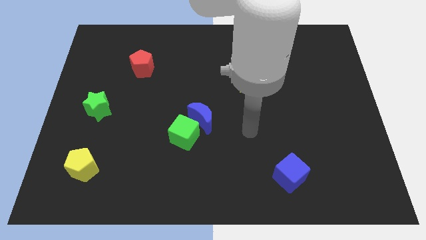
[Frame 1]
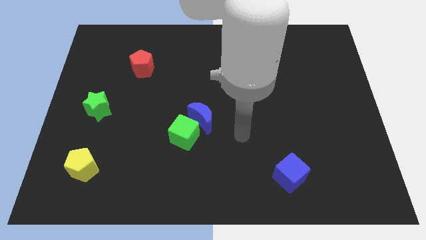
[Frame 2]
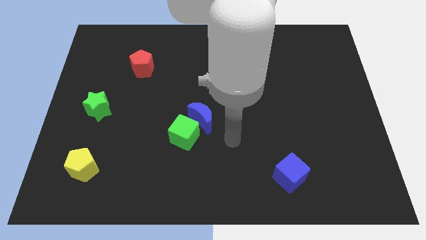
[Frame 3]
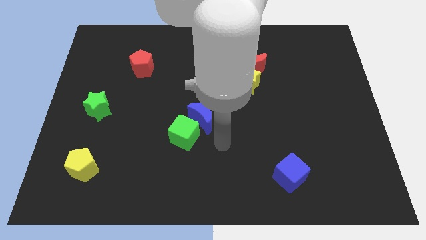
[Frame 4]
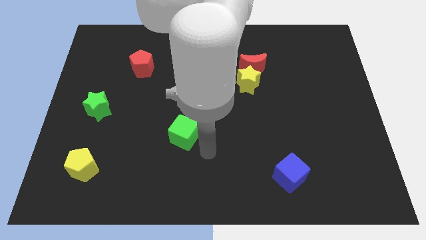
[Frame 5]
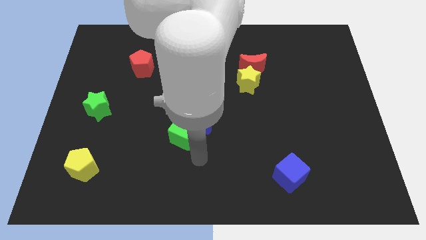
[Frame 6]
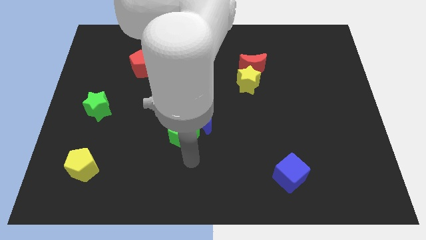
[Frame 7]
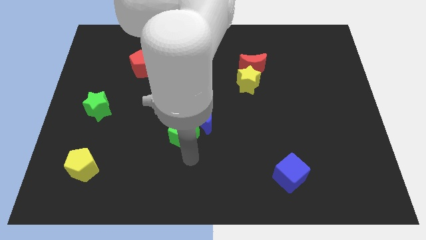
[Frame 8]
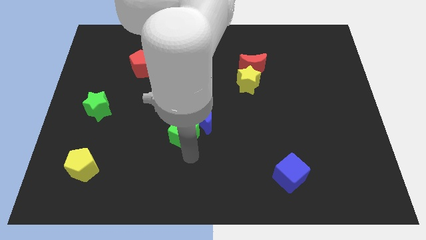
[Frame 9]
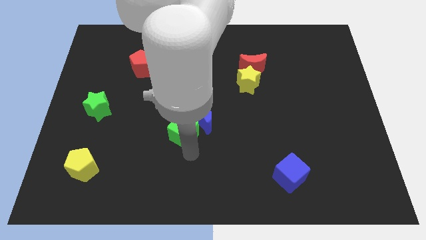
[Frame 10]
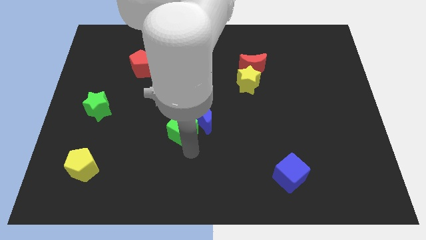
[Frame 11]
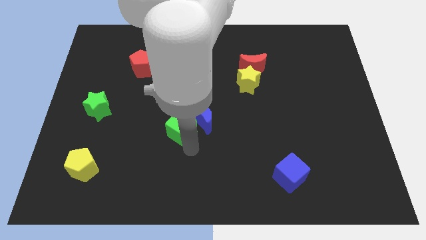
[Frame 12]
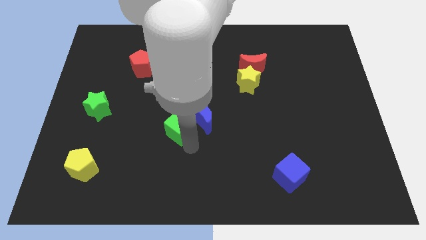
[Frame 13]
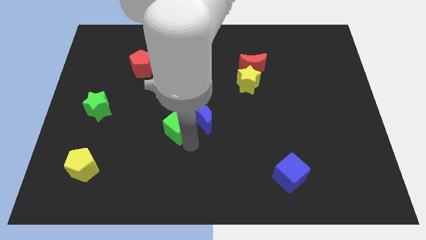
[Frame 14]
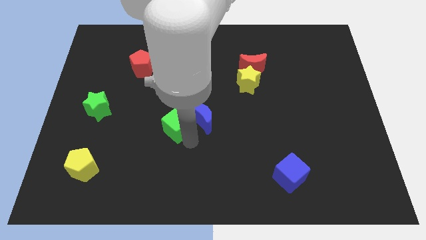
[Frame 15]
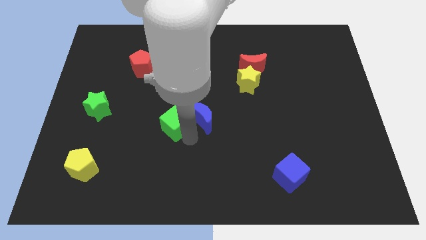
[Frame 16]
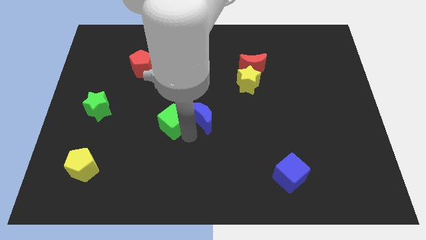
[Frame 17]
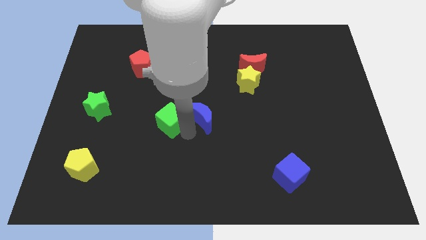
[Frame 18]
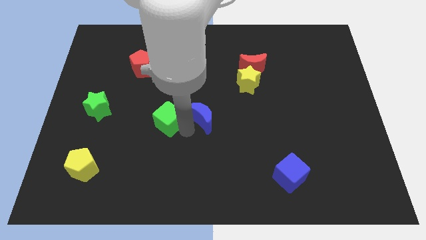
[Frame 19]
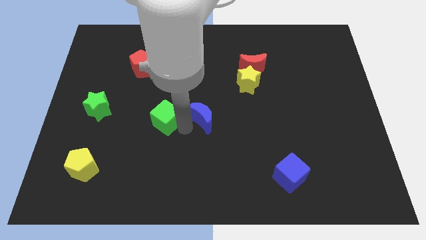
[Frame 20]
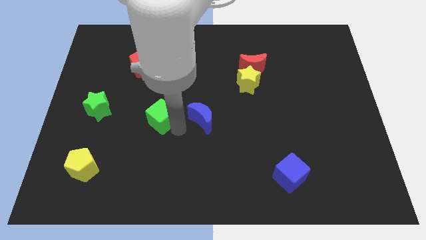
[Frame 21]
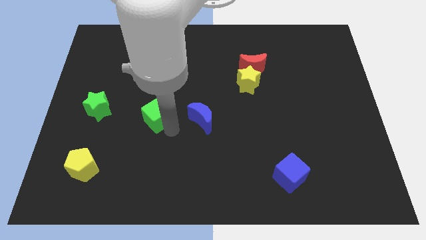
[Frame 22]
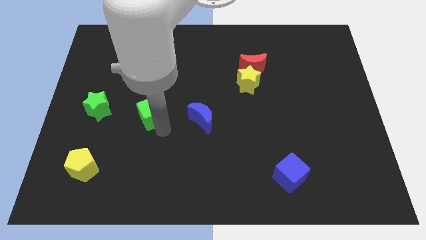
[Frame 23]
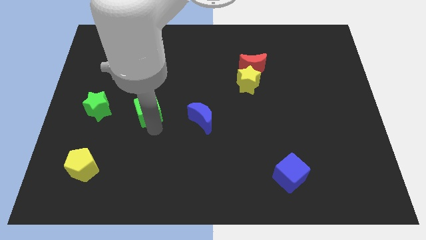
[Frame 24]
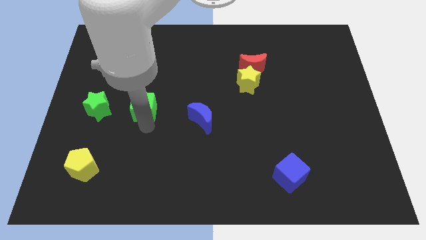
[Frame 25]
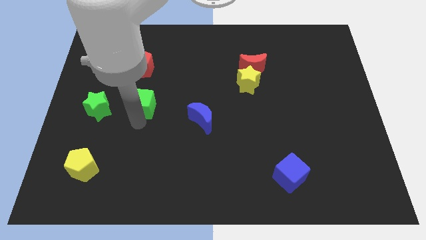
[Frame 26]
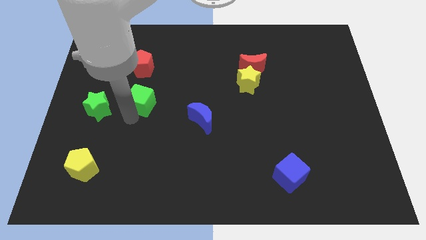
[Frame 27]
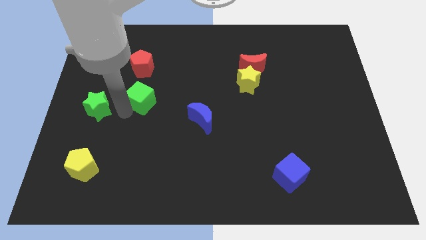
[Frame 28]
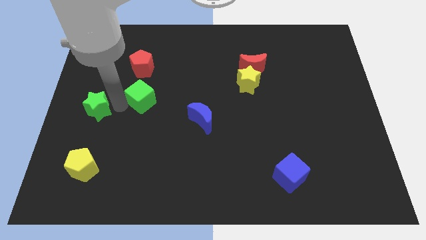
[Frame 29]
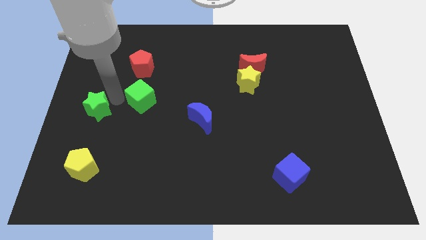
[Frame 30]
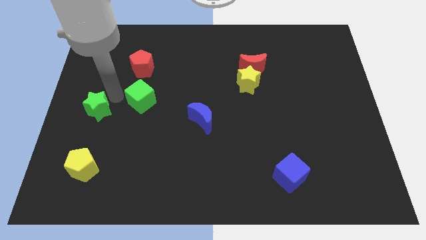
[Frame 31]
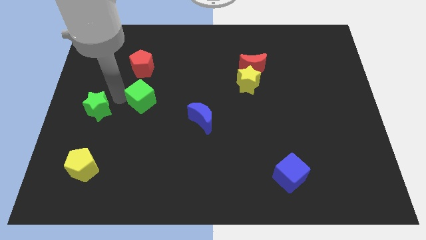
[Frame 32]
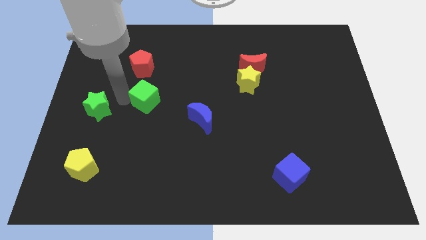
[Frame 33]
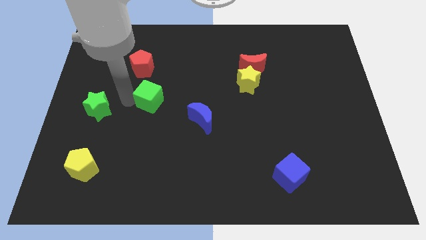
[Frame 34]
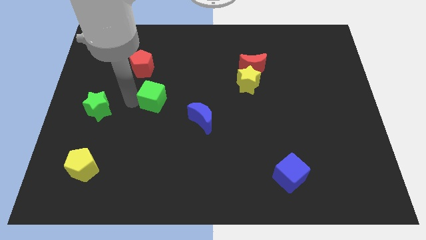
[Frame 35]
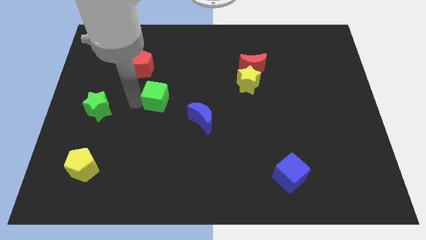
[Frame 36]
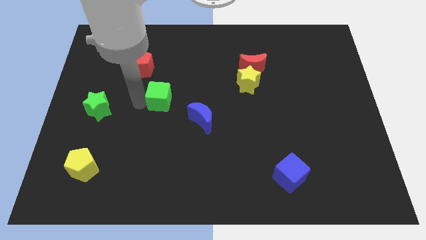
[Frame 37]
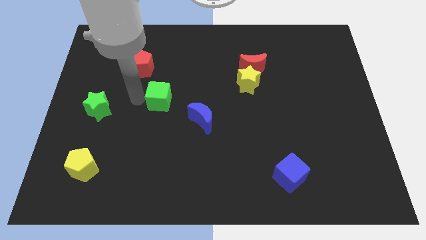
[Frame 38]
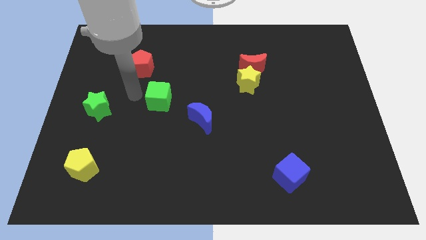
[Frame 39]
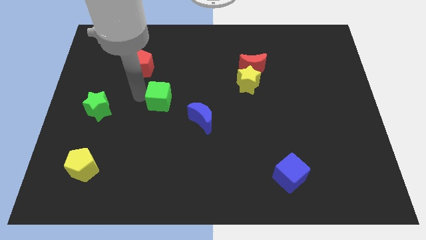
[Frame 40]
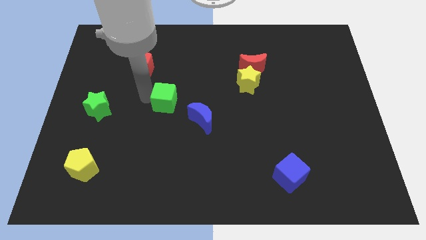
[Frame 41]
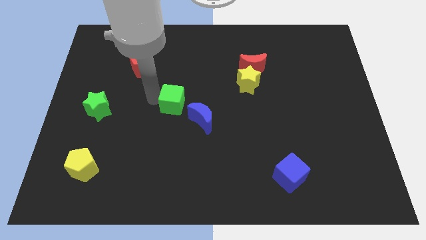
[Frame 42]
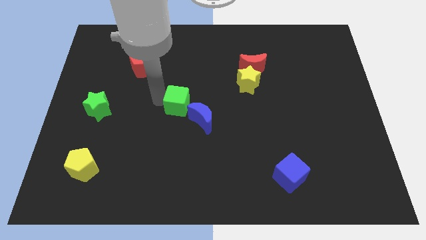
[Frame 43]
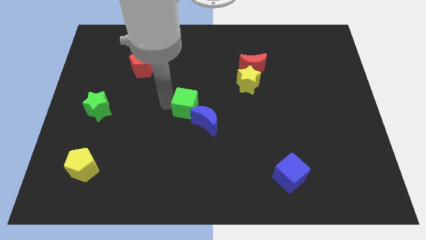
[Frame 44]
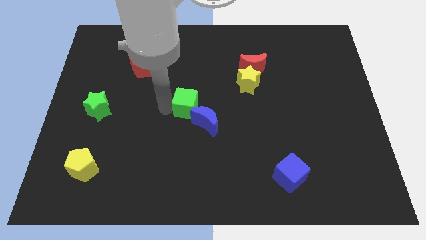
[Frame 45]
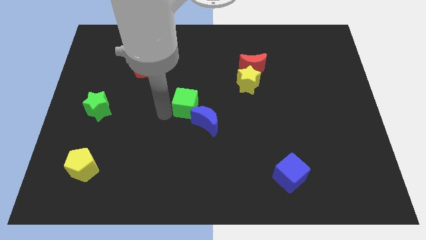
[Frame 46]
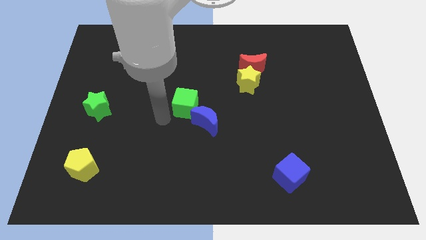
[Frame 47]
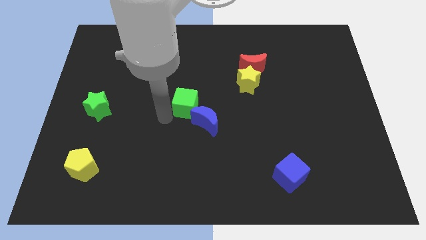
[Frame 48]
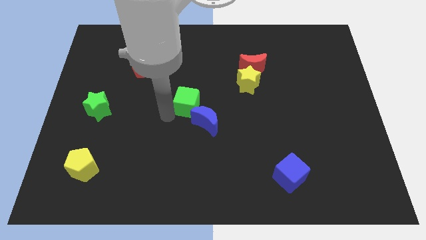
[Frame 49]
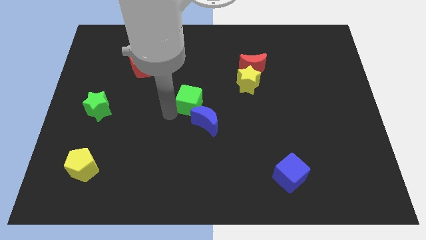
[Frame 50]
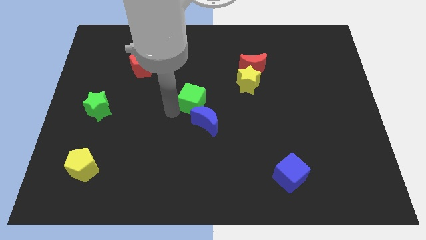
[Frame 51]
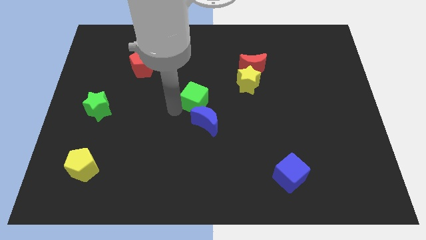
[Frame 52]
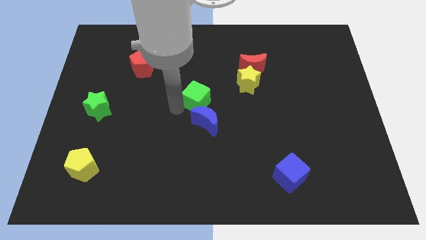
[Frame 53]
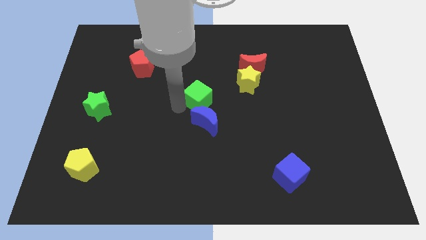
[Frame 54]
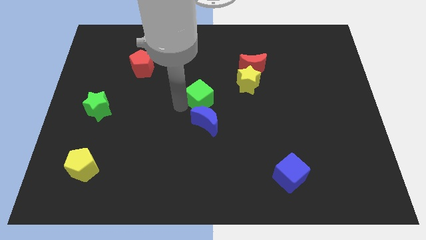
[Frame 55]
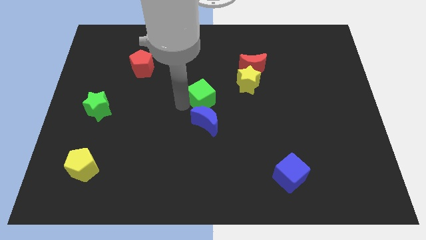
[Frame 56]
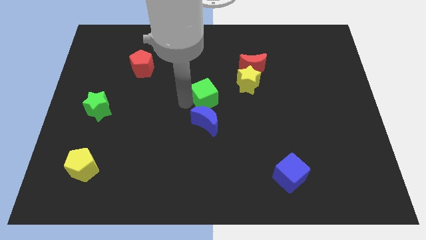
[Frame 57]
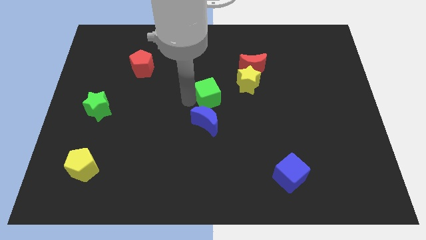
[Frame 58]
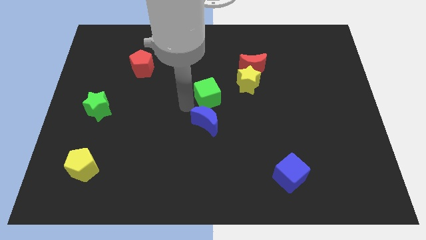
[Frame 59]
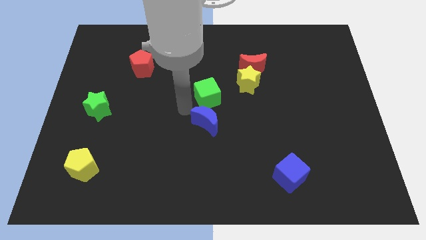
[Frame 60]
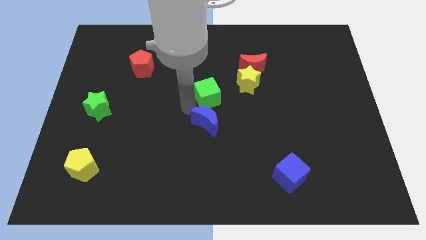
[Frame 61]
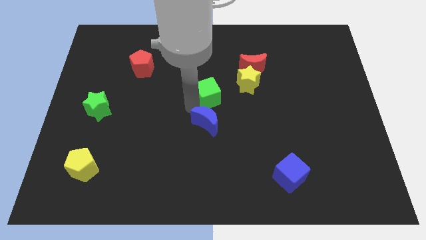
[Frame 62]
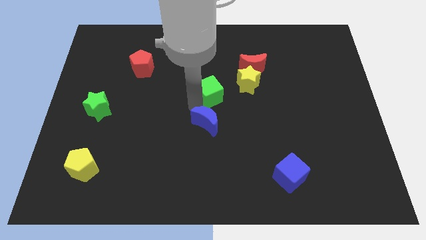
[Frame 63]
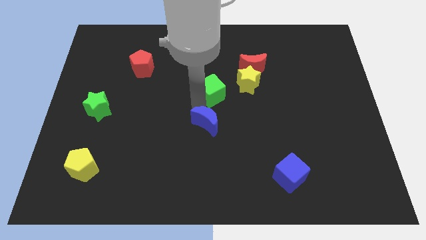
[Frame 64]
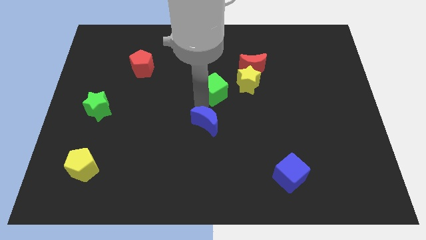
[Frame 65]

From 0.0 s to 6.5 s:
put the green cube to the bottom left side of the red moon

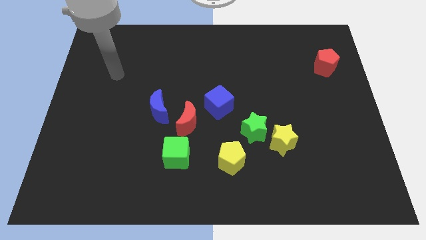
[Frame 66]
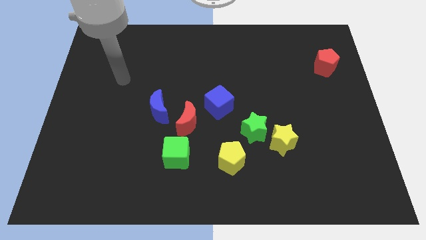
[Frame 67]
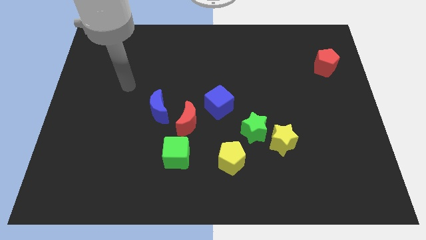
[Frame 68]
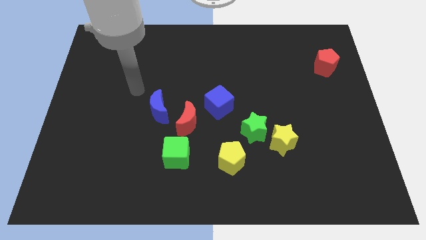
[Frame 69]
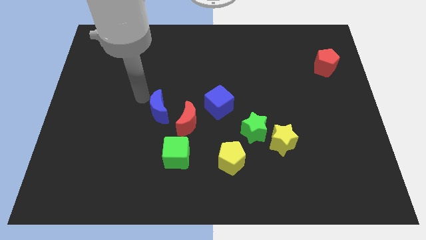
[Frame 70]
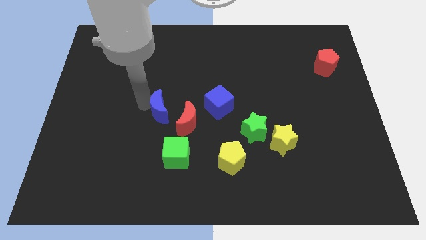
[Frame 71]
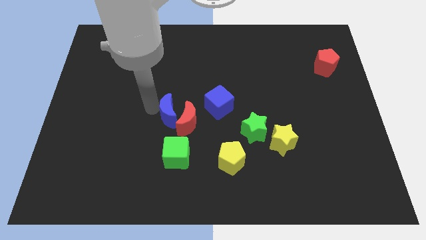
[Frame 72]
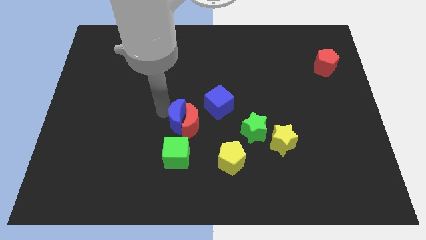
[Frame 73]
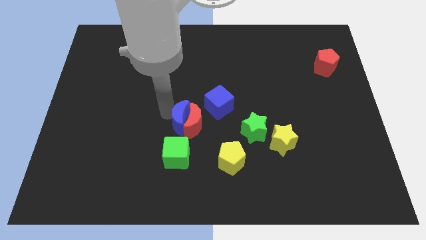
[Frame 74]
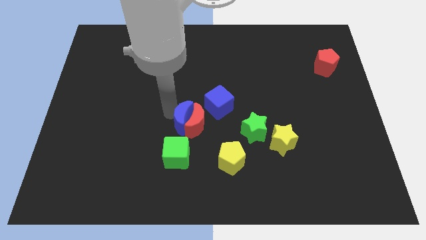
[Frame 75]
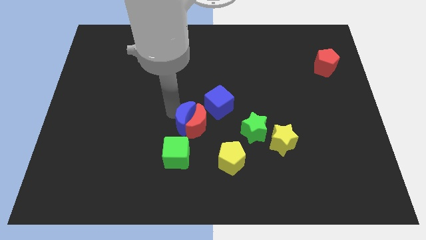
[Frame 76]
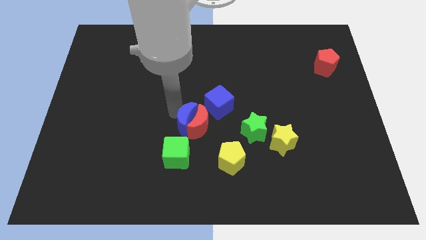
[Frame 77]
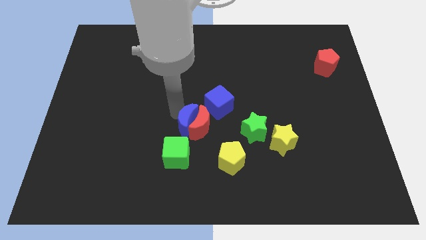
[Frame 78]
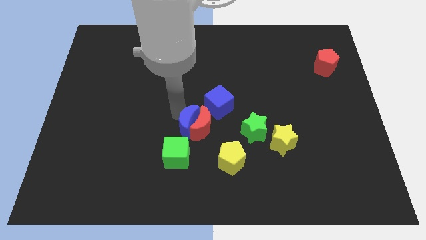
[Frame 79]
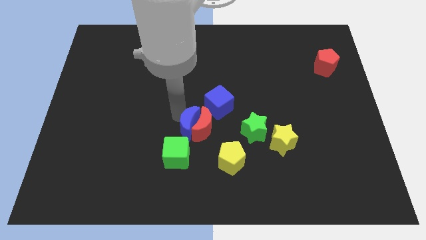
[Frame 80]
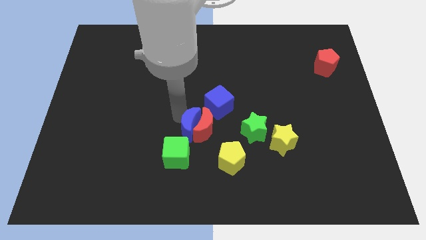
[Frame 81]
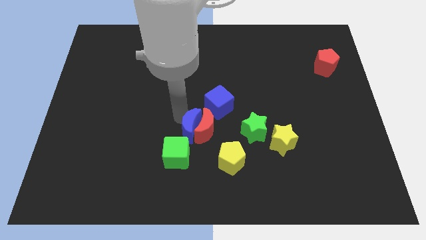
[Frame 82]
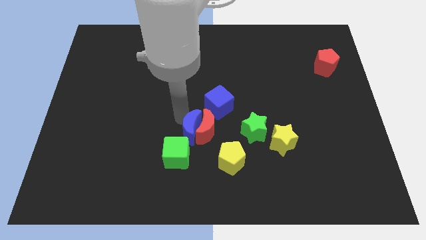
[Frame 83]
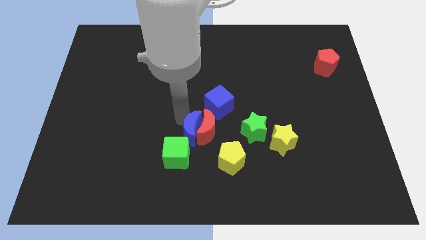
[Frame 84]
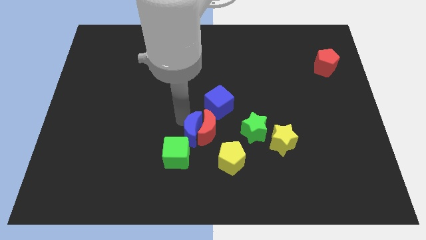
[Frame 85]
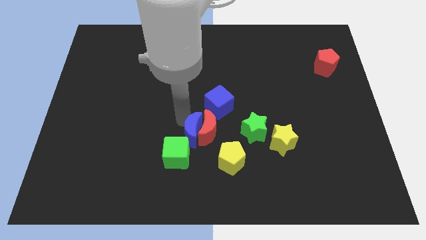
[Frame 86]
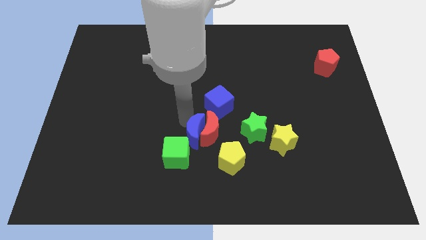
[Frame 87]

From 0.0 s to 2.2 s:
slide the red moon just left of the yellow star
